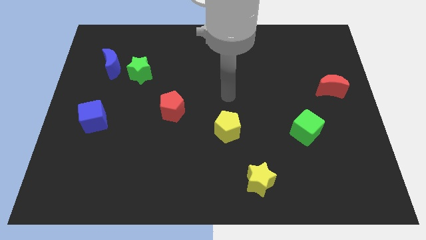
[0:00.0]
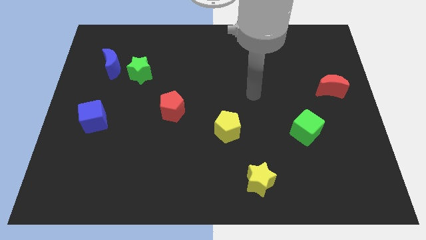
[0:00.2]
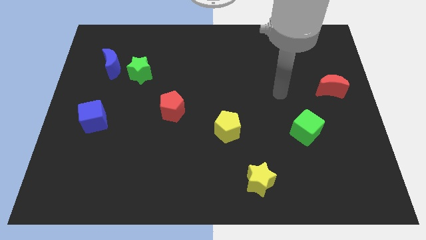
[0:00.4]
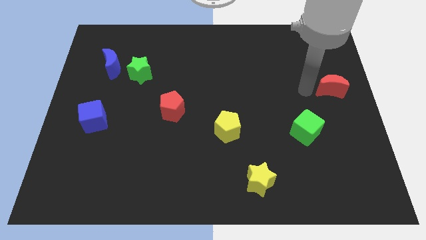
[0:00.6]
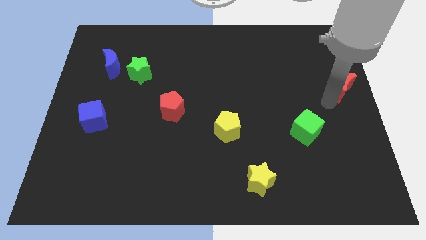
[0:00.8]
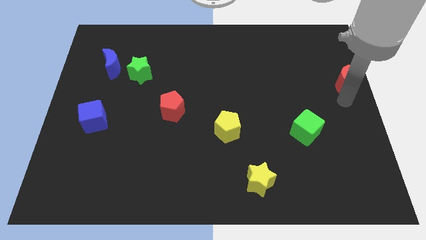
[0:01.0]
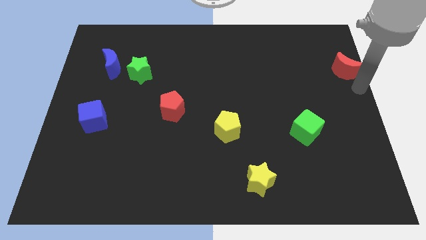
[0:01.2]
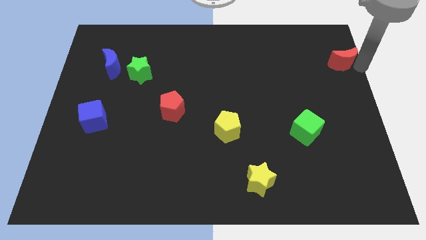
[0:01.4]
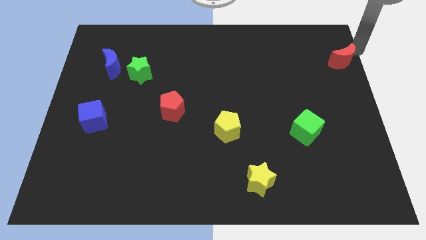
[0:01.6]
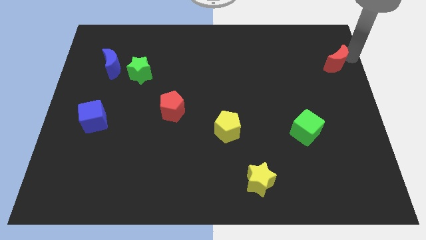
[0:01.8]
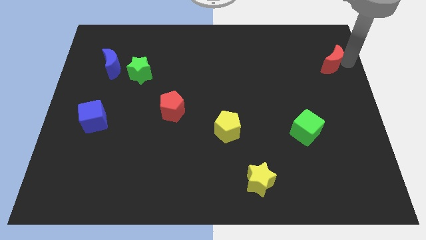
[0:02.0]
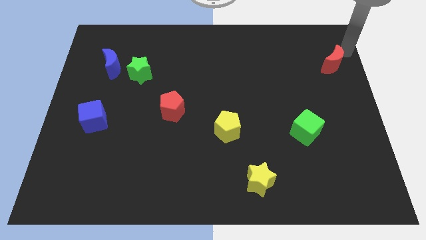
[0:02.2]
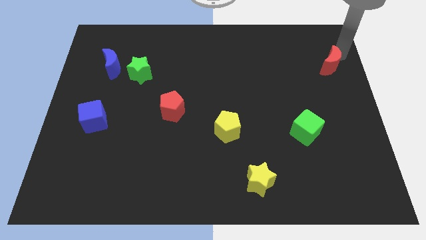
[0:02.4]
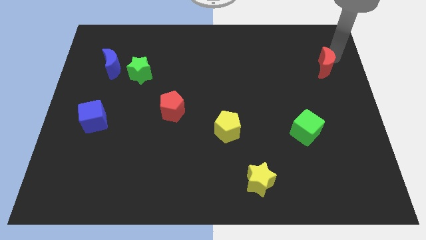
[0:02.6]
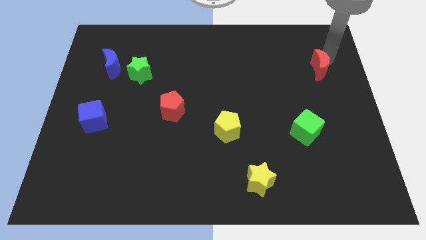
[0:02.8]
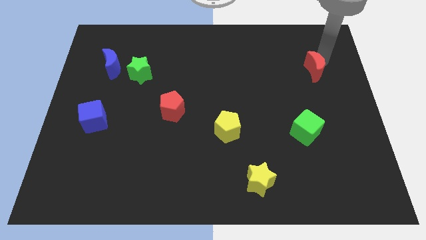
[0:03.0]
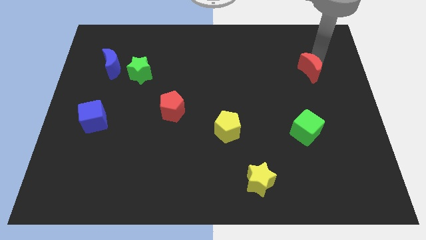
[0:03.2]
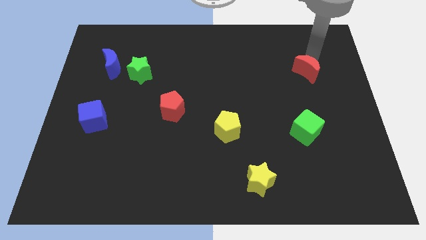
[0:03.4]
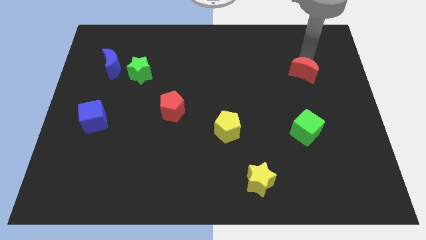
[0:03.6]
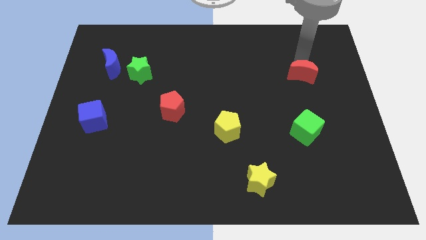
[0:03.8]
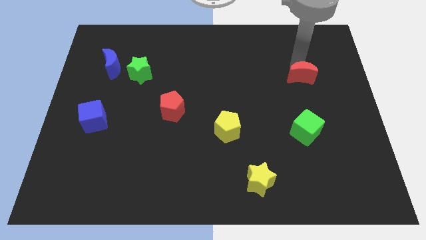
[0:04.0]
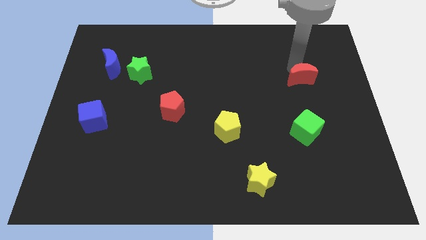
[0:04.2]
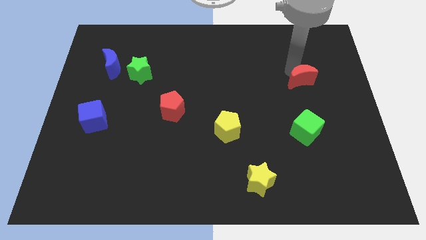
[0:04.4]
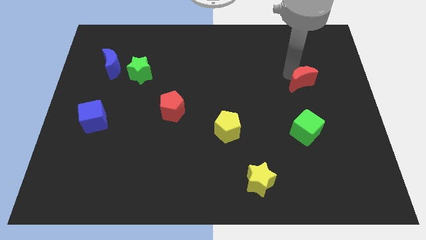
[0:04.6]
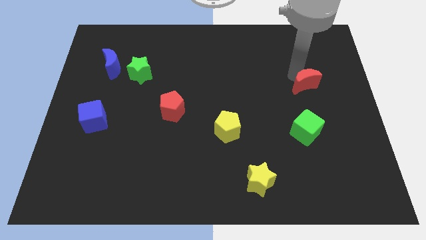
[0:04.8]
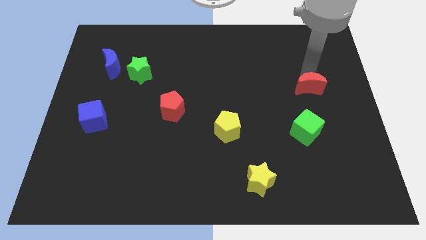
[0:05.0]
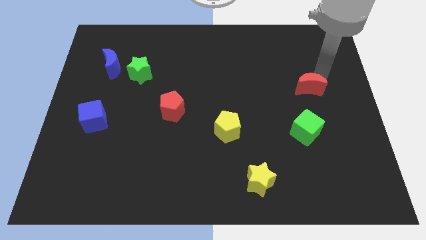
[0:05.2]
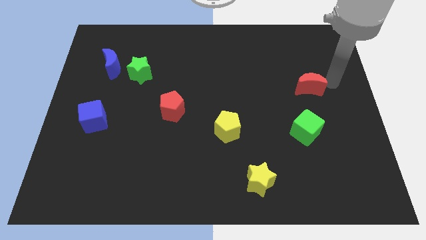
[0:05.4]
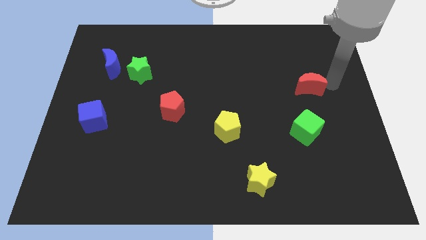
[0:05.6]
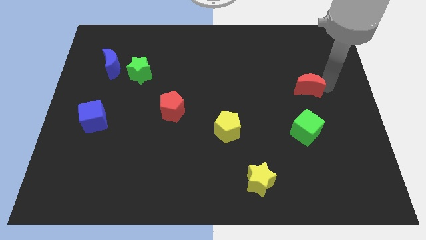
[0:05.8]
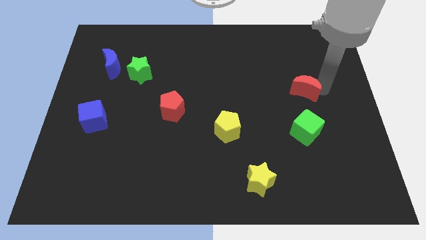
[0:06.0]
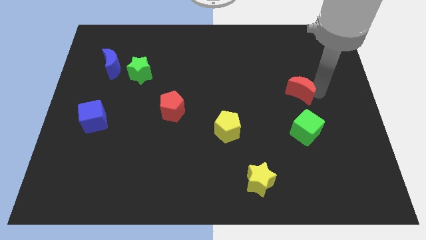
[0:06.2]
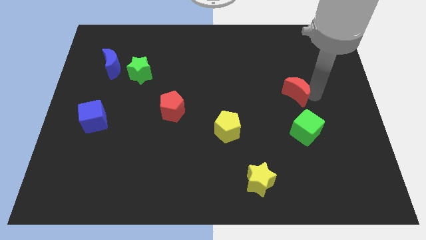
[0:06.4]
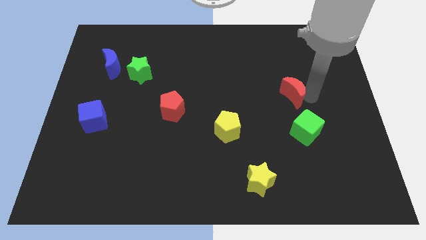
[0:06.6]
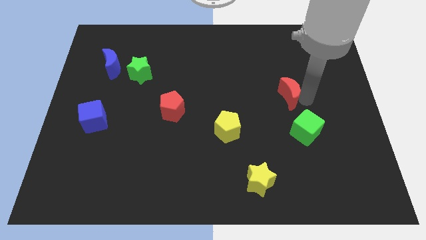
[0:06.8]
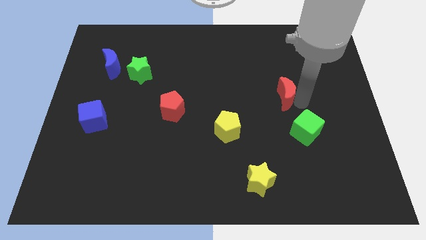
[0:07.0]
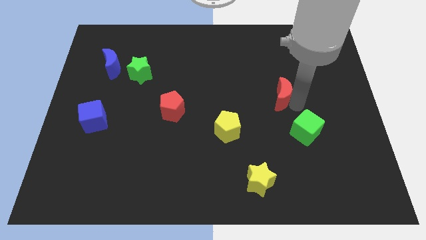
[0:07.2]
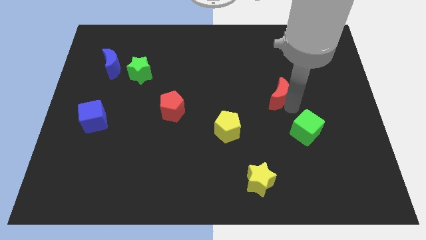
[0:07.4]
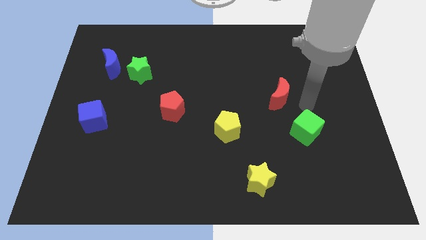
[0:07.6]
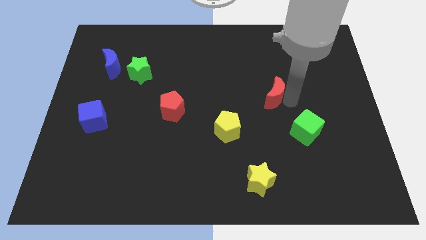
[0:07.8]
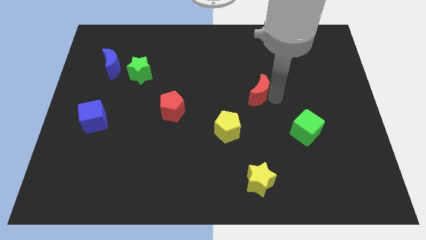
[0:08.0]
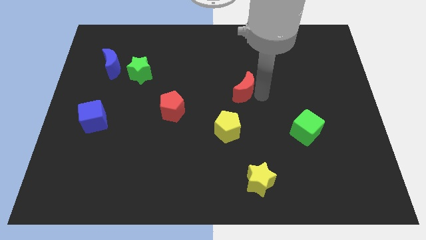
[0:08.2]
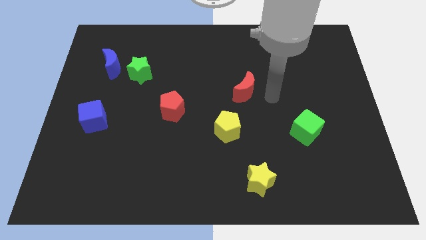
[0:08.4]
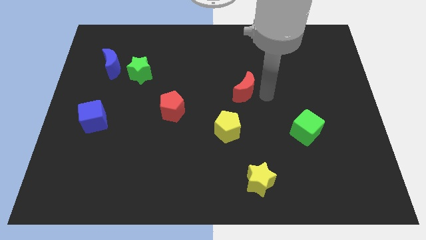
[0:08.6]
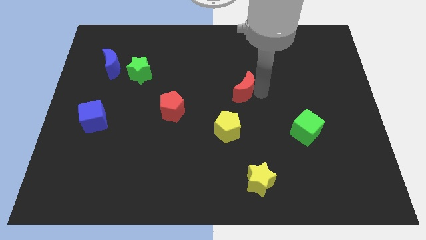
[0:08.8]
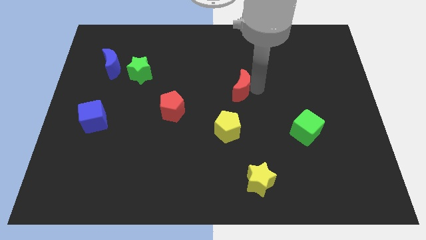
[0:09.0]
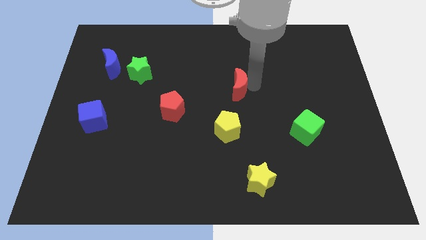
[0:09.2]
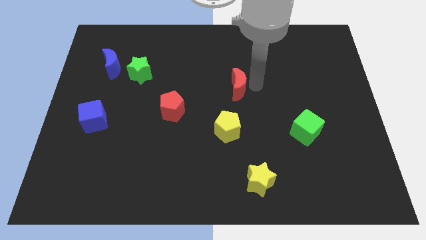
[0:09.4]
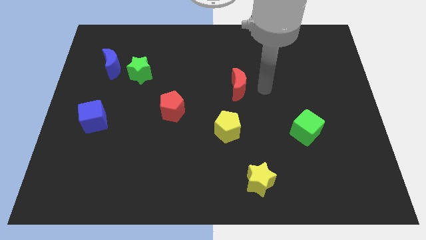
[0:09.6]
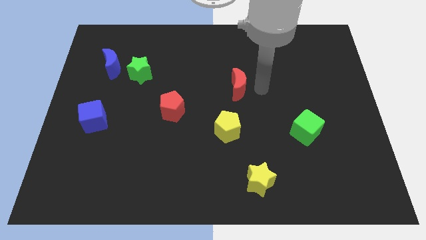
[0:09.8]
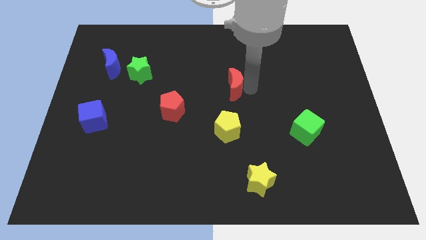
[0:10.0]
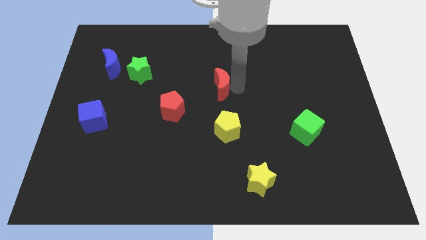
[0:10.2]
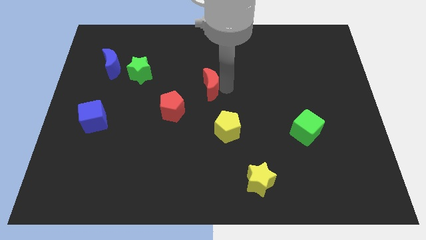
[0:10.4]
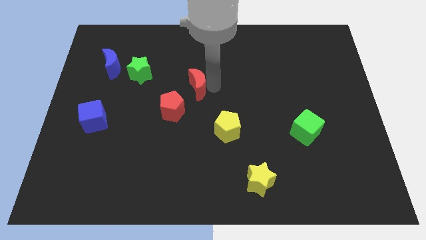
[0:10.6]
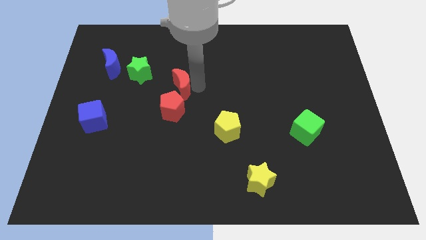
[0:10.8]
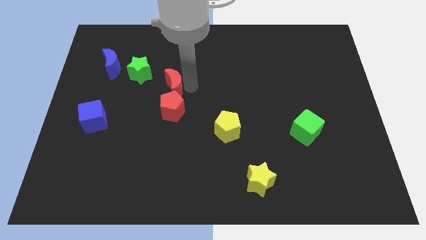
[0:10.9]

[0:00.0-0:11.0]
move the red moon to the bottom right of the green star

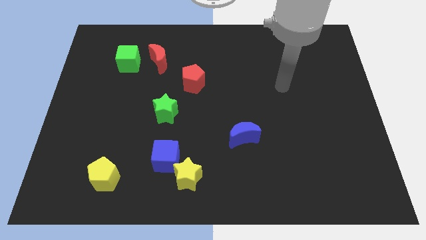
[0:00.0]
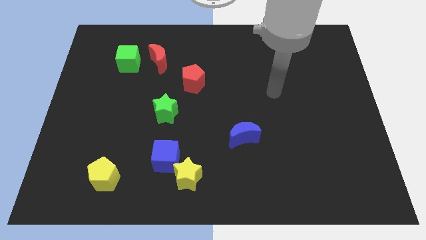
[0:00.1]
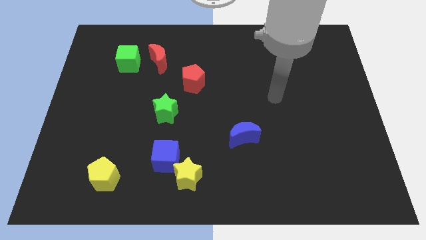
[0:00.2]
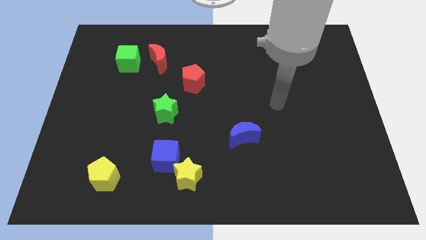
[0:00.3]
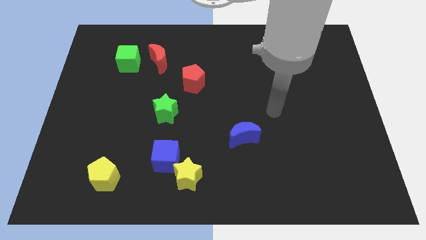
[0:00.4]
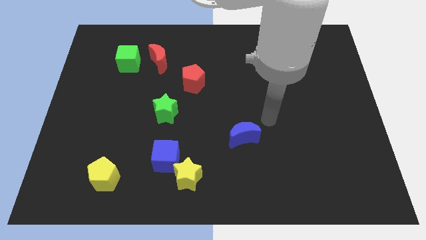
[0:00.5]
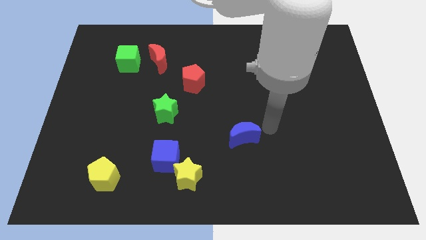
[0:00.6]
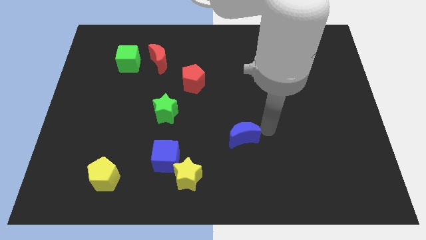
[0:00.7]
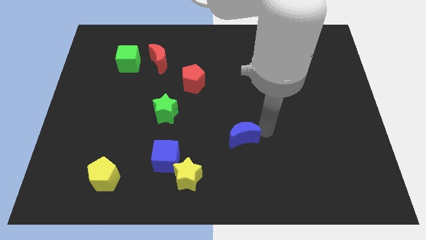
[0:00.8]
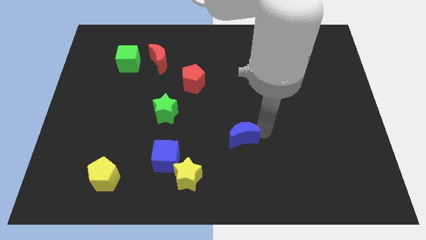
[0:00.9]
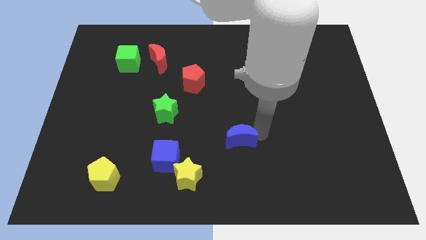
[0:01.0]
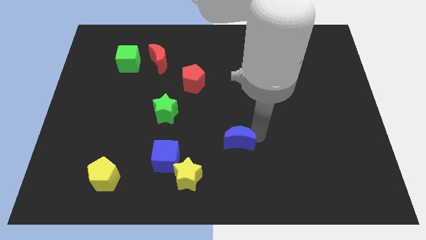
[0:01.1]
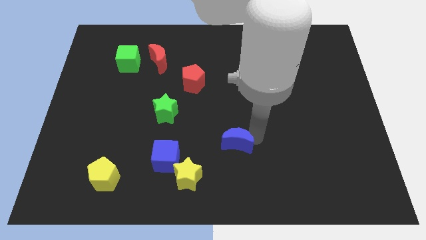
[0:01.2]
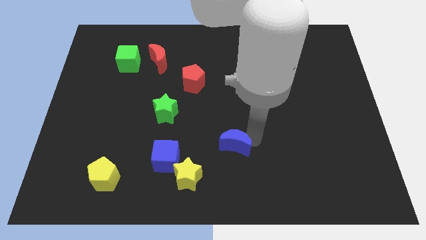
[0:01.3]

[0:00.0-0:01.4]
put the blue moon diagonally up and to the right of the yellow star

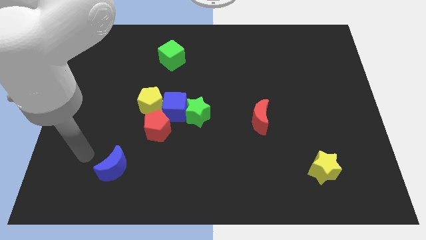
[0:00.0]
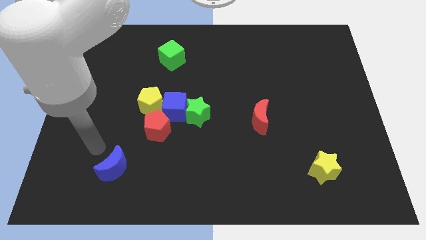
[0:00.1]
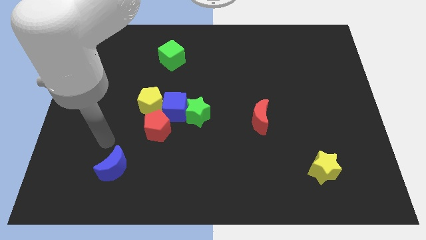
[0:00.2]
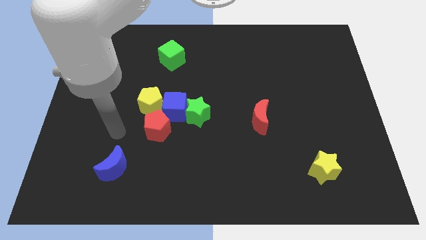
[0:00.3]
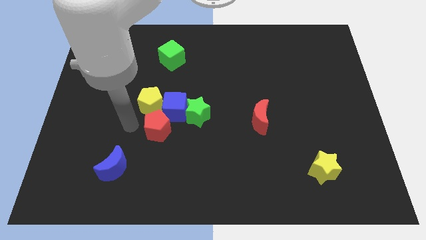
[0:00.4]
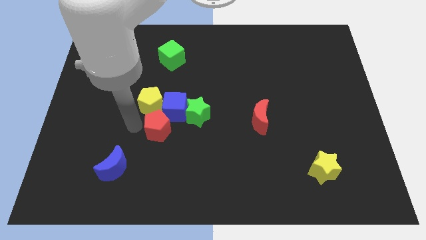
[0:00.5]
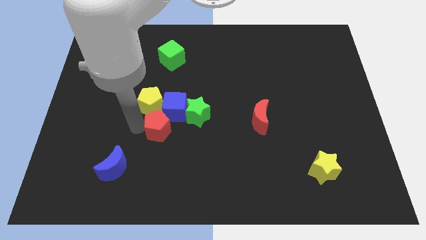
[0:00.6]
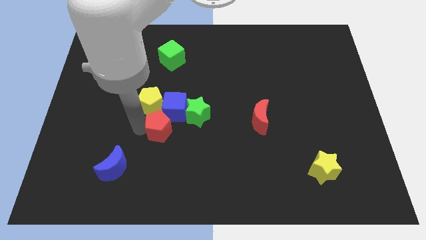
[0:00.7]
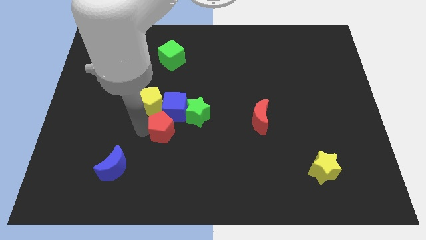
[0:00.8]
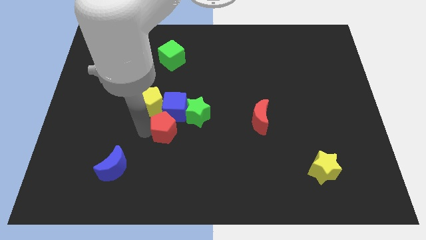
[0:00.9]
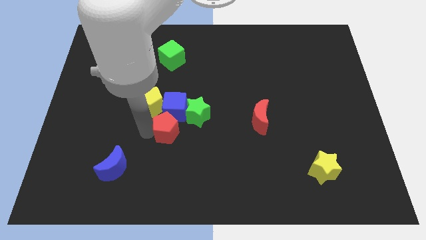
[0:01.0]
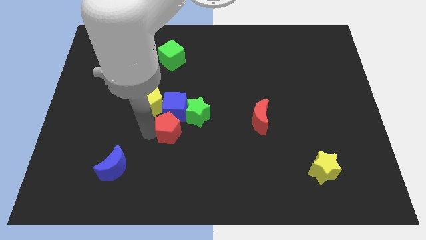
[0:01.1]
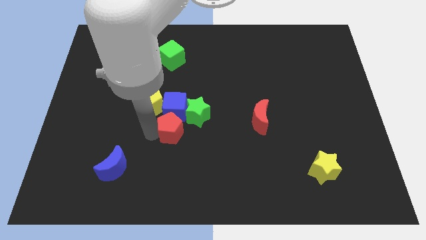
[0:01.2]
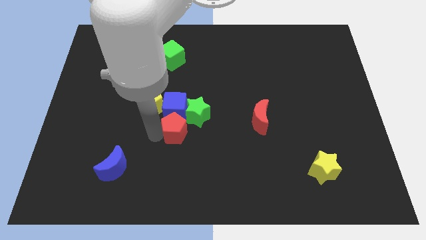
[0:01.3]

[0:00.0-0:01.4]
move the red pentagon to the bottom of the green star

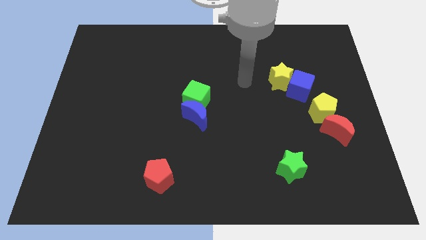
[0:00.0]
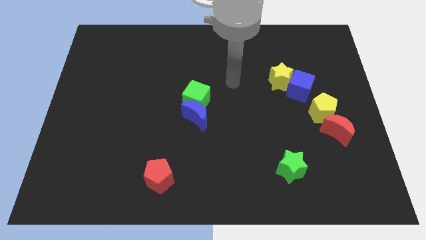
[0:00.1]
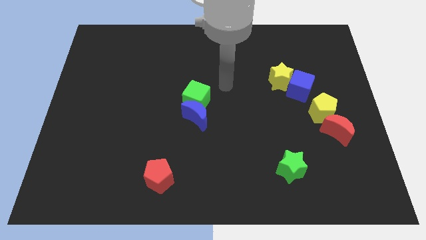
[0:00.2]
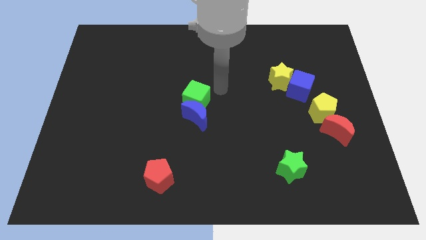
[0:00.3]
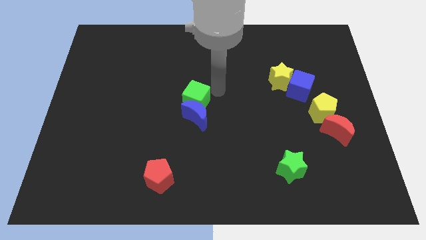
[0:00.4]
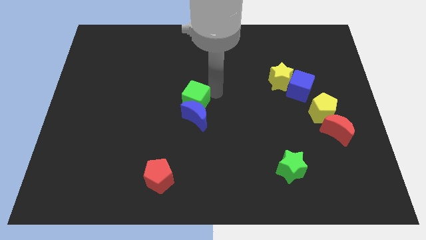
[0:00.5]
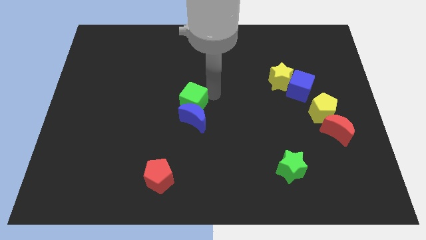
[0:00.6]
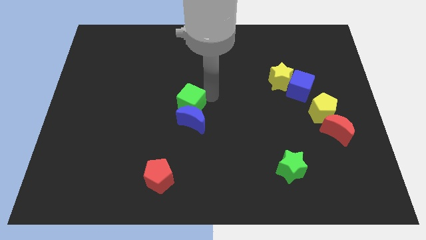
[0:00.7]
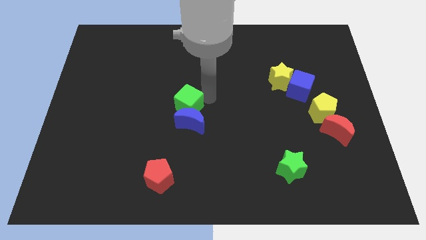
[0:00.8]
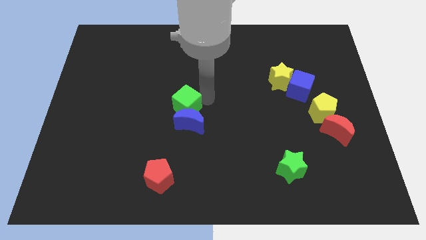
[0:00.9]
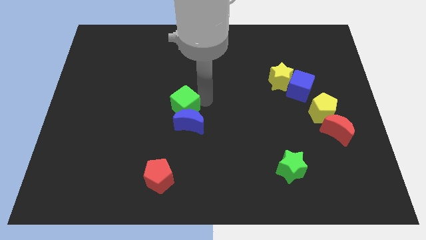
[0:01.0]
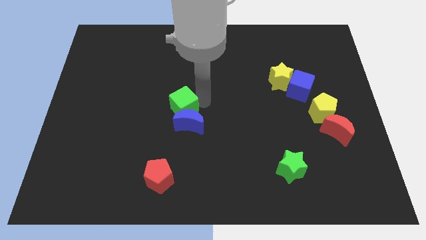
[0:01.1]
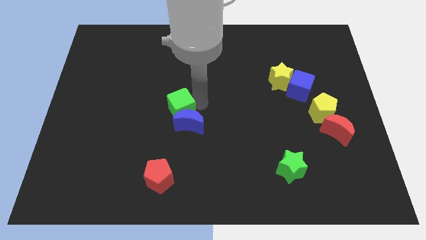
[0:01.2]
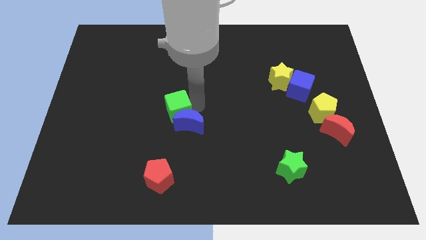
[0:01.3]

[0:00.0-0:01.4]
push the green cube just left of the blue moon
